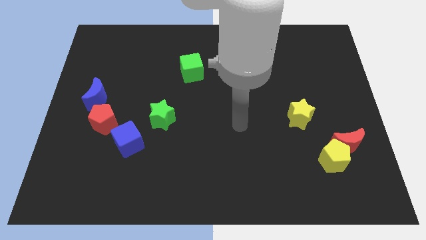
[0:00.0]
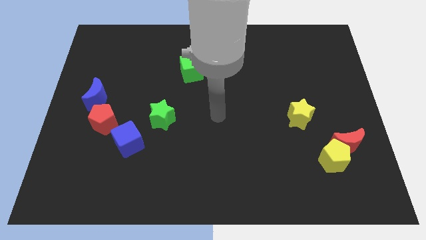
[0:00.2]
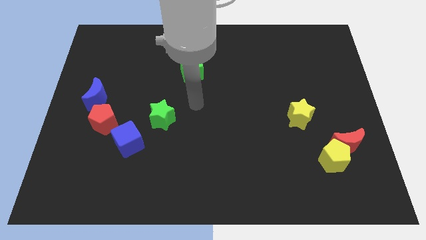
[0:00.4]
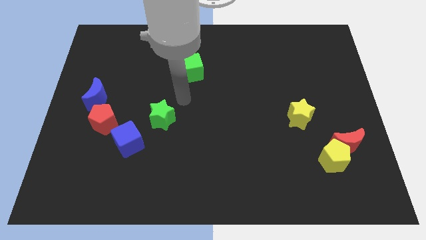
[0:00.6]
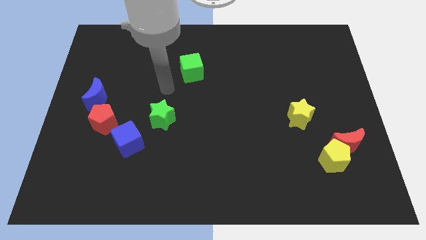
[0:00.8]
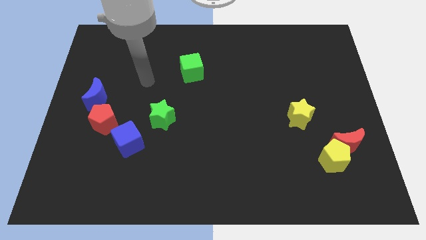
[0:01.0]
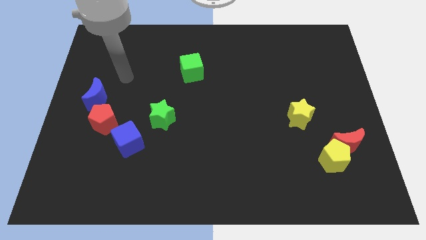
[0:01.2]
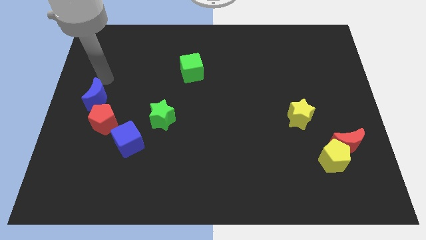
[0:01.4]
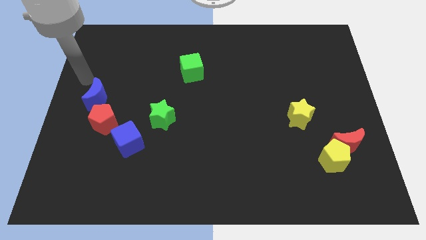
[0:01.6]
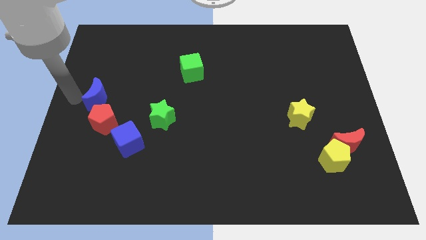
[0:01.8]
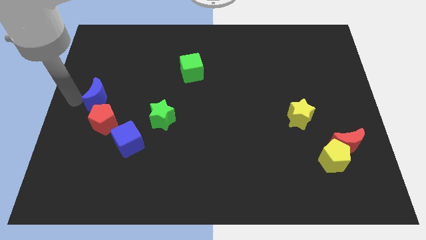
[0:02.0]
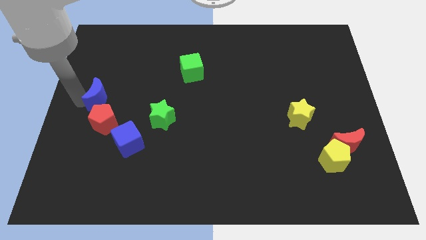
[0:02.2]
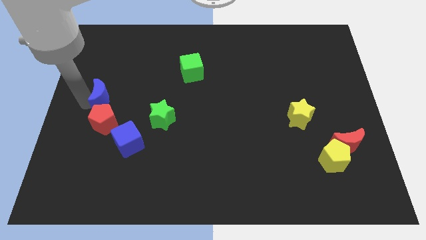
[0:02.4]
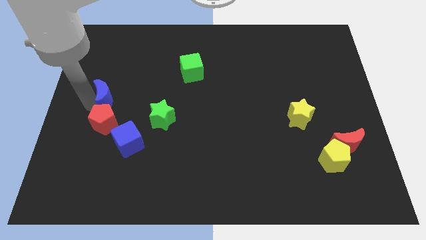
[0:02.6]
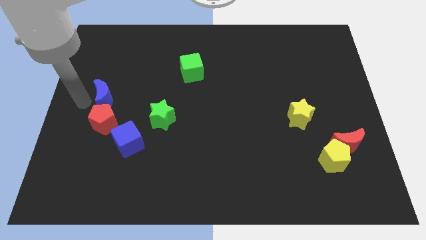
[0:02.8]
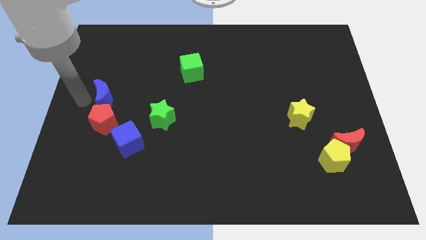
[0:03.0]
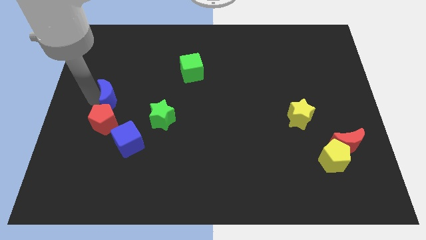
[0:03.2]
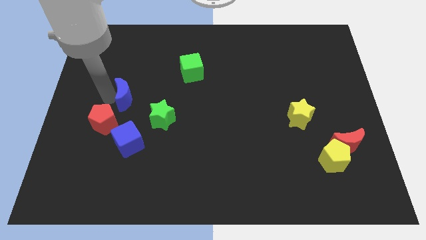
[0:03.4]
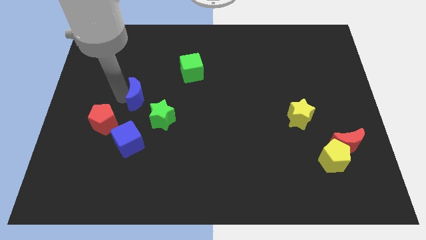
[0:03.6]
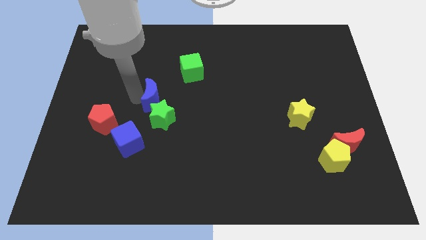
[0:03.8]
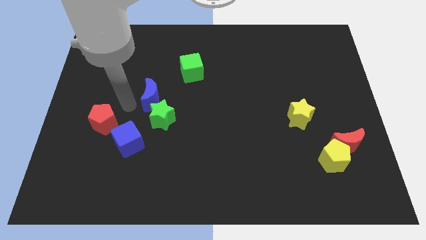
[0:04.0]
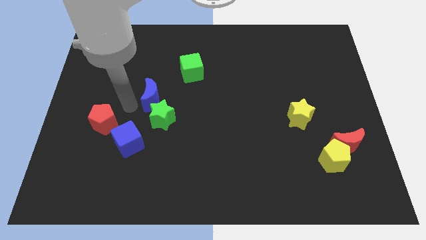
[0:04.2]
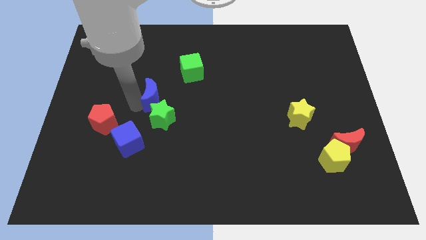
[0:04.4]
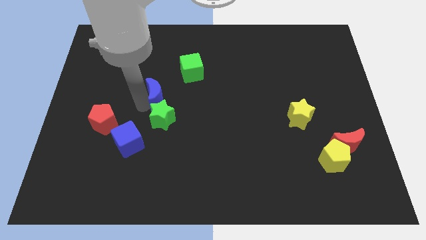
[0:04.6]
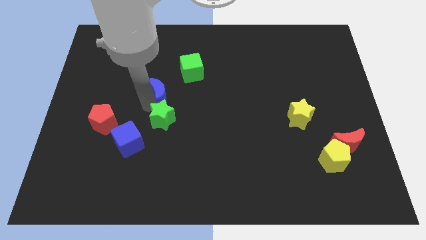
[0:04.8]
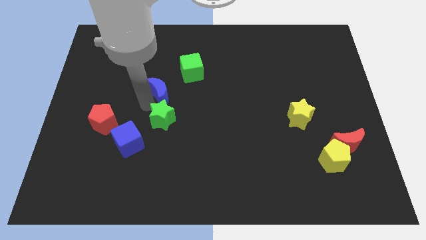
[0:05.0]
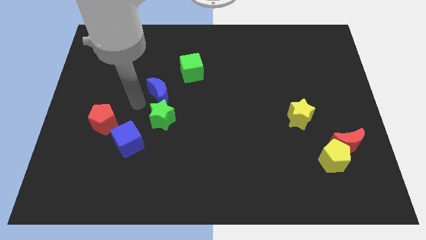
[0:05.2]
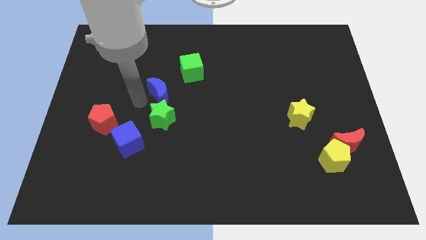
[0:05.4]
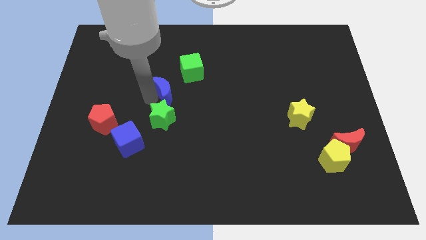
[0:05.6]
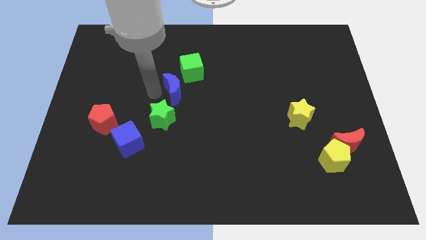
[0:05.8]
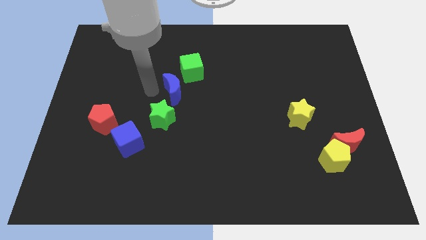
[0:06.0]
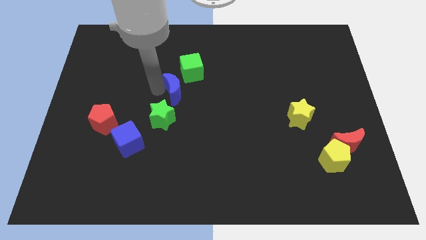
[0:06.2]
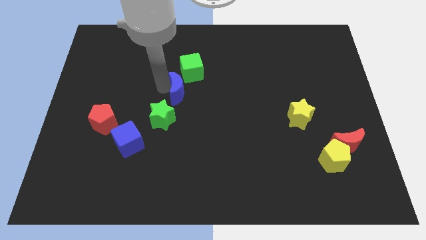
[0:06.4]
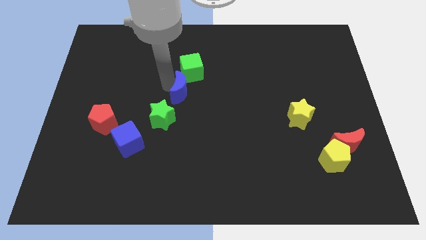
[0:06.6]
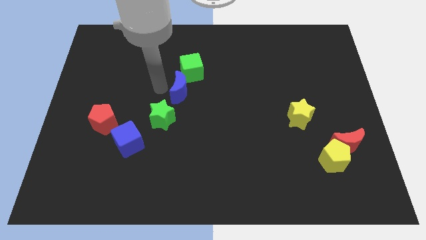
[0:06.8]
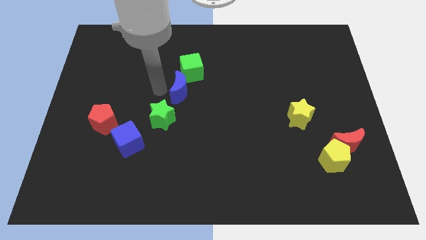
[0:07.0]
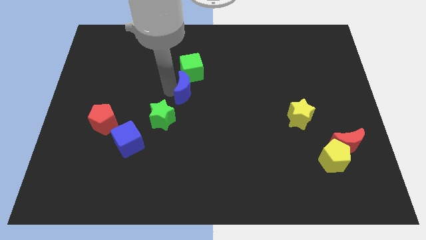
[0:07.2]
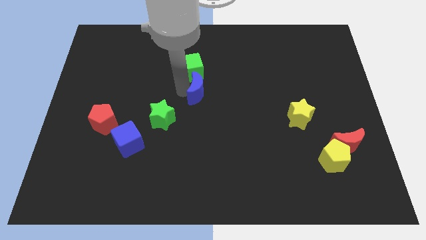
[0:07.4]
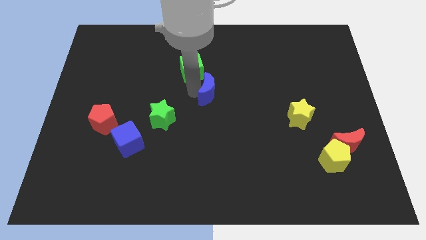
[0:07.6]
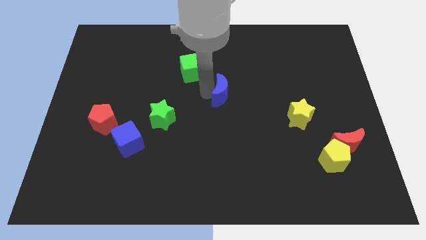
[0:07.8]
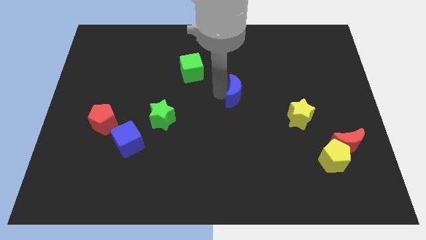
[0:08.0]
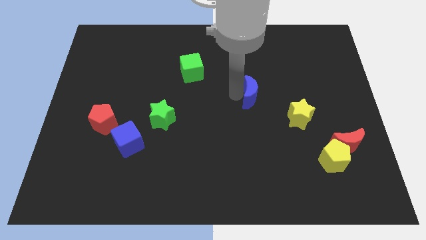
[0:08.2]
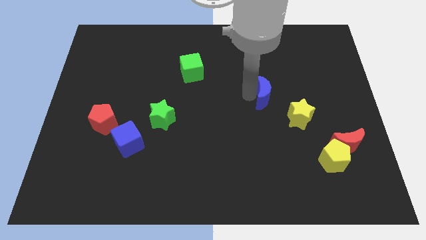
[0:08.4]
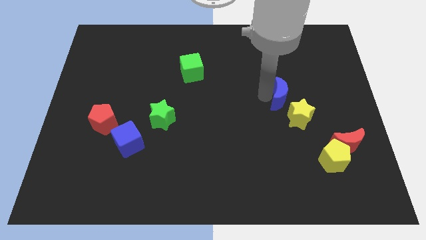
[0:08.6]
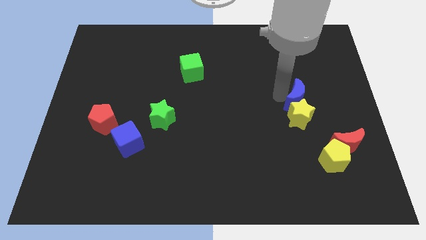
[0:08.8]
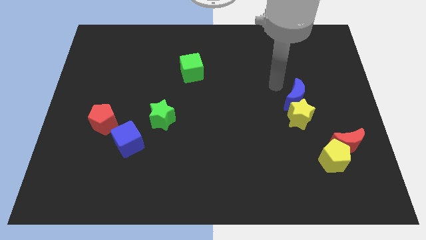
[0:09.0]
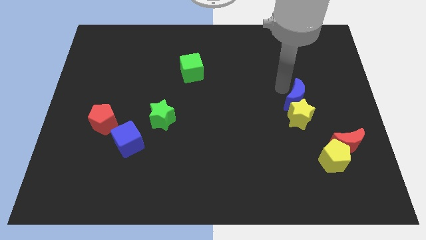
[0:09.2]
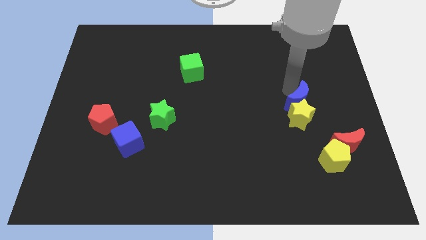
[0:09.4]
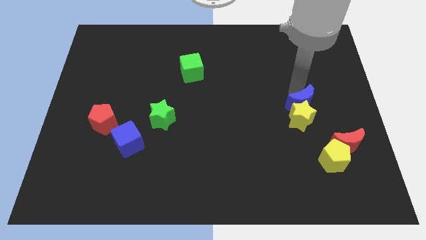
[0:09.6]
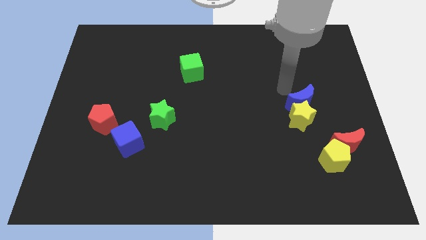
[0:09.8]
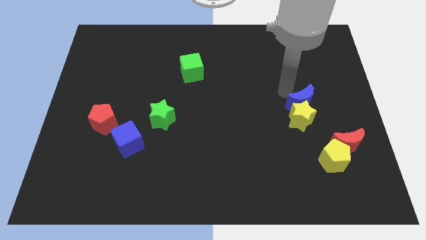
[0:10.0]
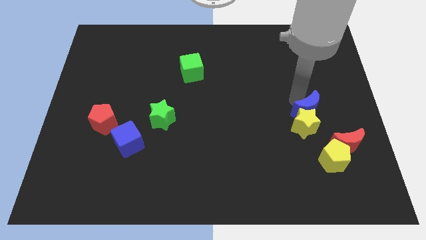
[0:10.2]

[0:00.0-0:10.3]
push the blue moon to the top side of the yellow pentagon

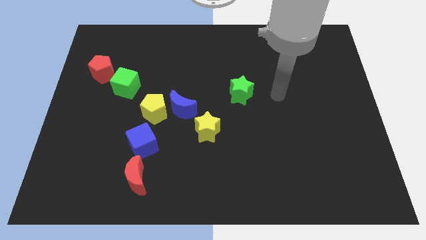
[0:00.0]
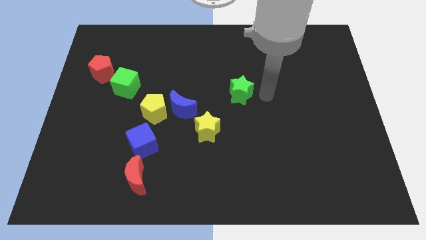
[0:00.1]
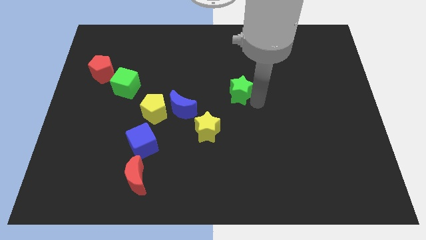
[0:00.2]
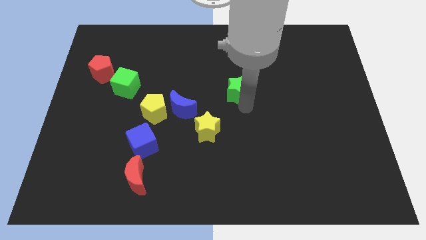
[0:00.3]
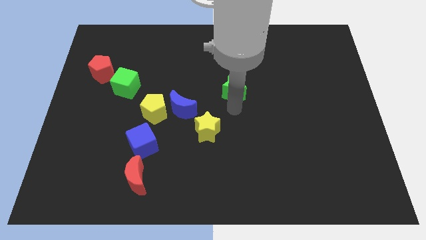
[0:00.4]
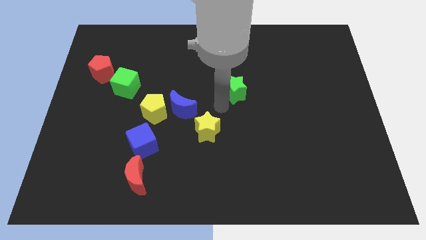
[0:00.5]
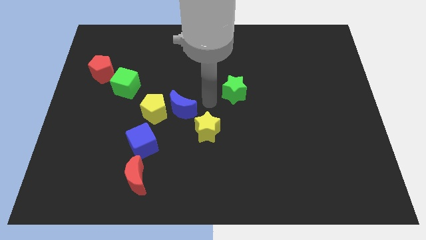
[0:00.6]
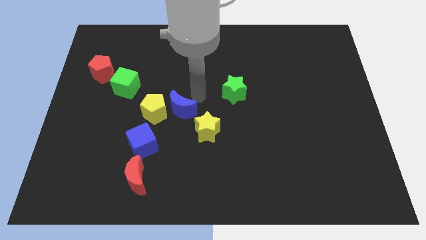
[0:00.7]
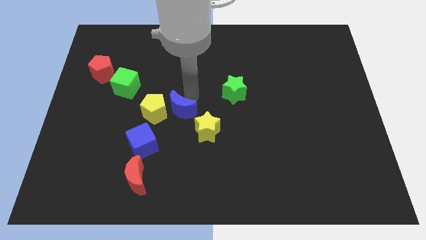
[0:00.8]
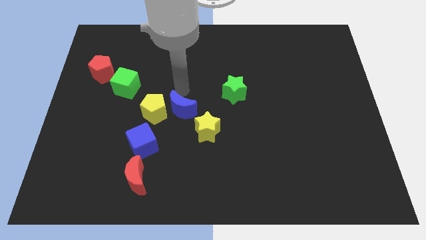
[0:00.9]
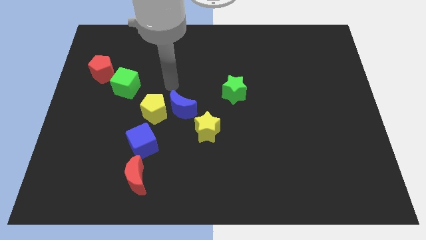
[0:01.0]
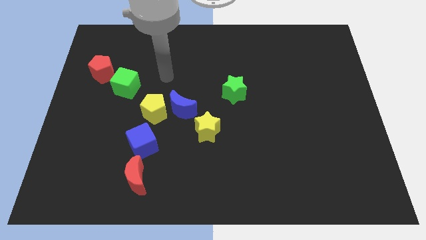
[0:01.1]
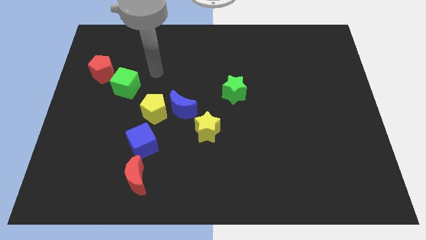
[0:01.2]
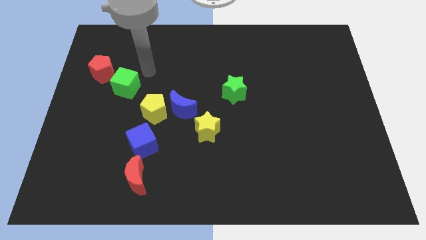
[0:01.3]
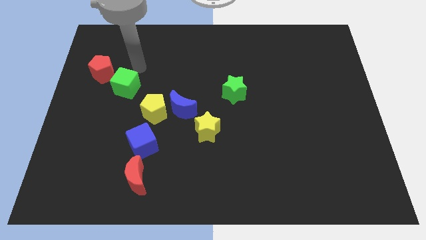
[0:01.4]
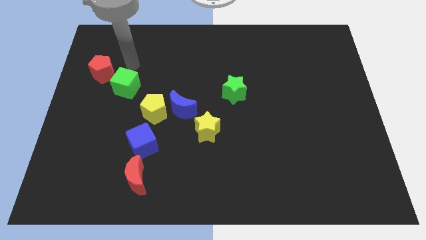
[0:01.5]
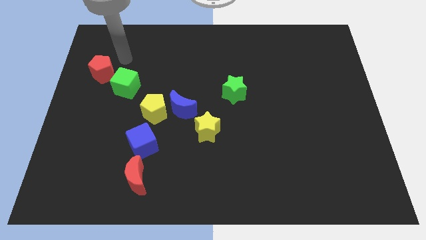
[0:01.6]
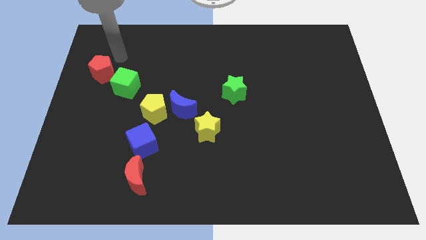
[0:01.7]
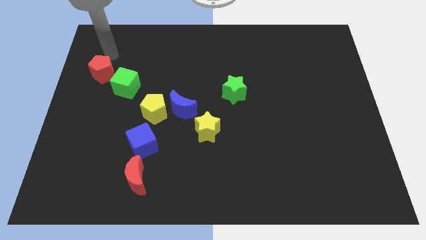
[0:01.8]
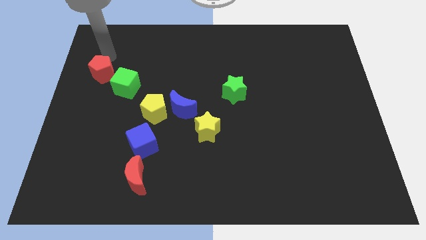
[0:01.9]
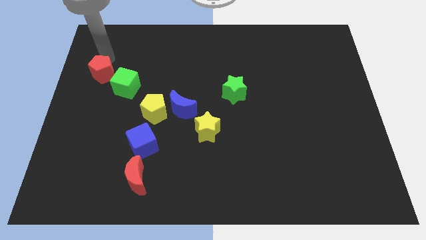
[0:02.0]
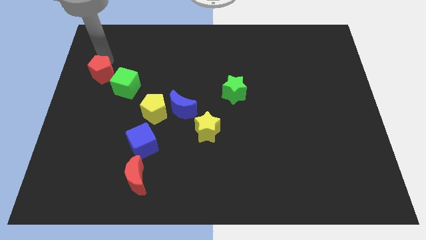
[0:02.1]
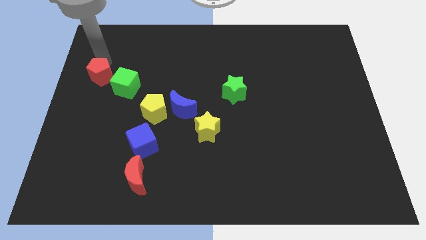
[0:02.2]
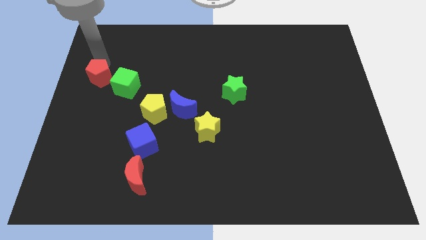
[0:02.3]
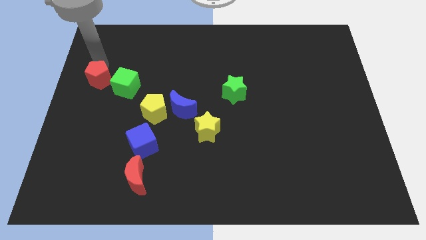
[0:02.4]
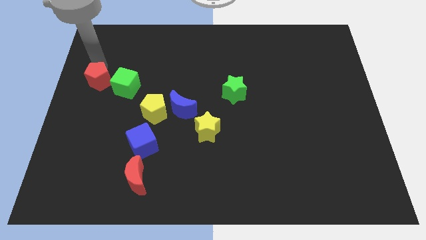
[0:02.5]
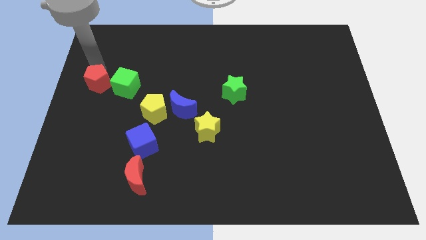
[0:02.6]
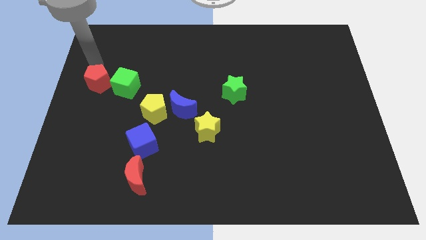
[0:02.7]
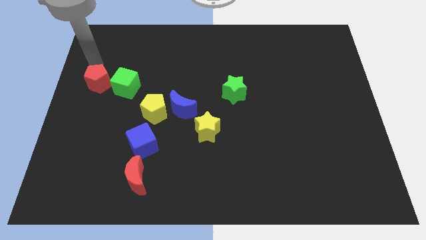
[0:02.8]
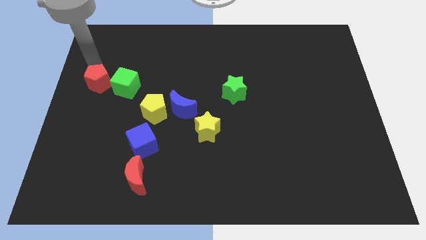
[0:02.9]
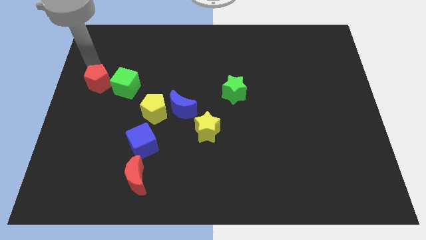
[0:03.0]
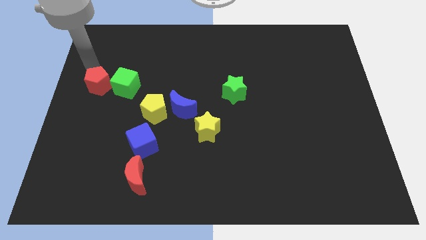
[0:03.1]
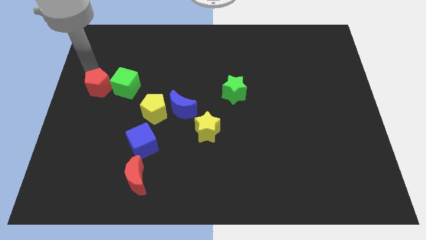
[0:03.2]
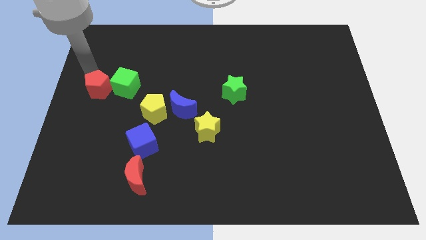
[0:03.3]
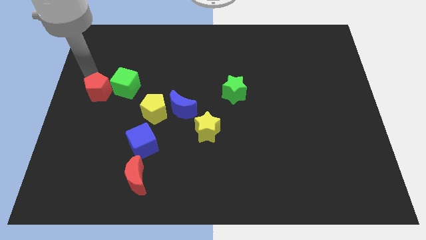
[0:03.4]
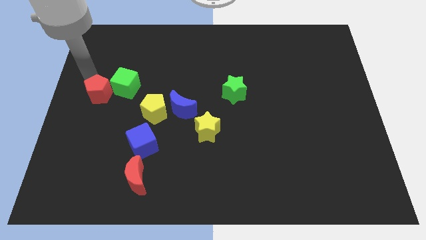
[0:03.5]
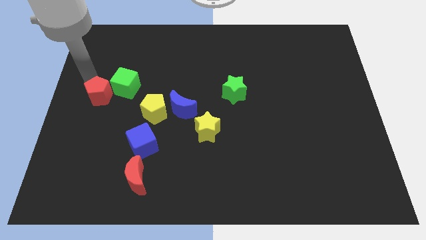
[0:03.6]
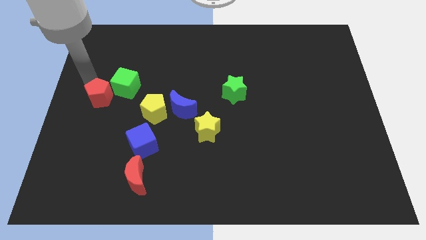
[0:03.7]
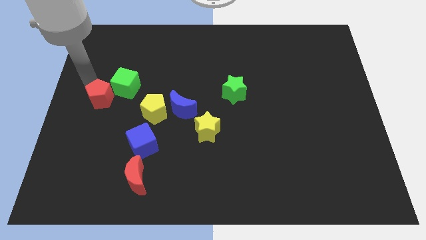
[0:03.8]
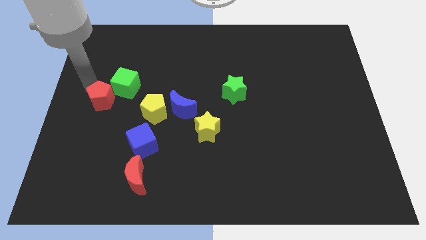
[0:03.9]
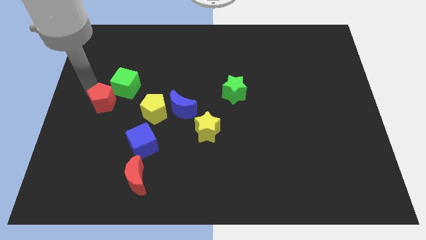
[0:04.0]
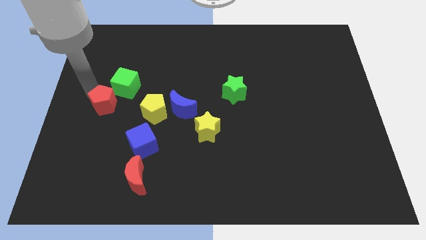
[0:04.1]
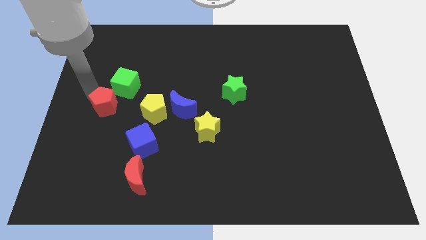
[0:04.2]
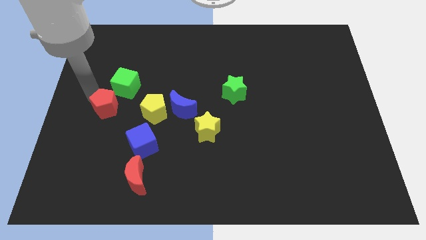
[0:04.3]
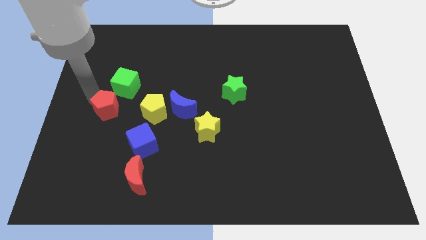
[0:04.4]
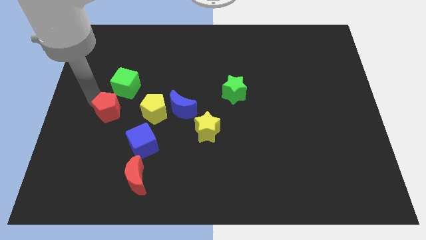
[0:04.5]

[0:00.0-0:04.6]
put the red pentagon diagonally up and to the left of the blue cube
